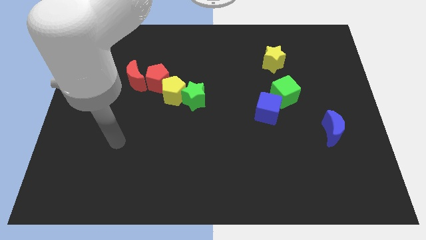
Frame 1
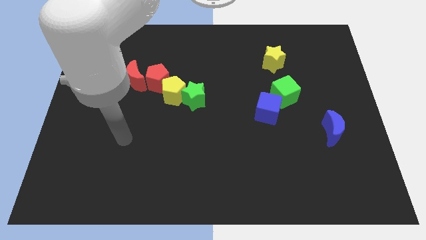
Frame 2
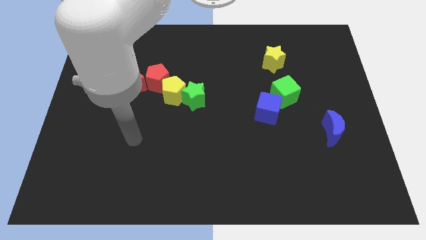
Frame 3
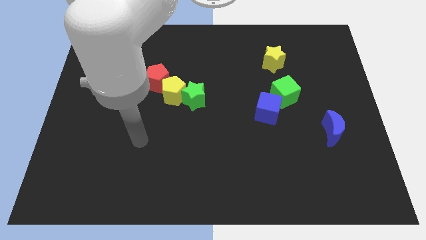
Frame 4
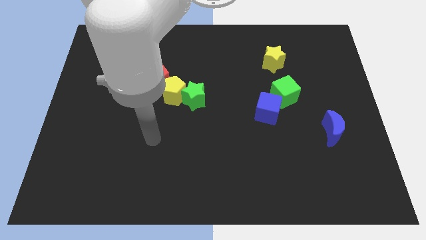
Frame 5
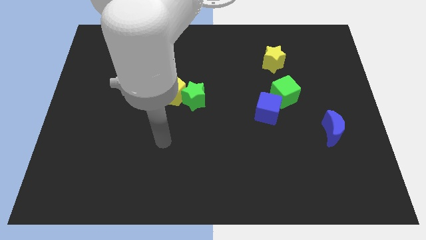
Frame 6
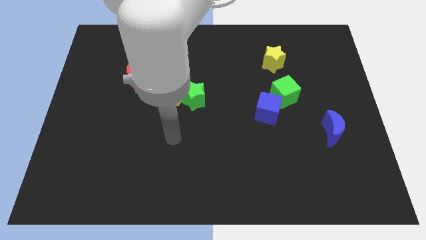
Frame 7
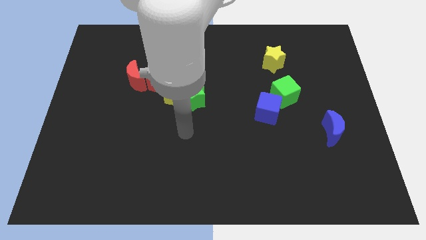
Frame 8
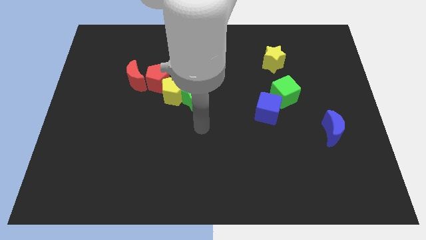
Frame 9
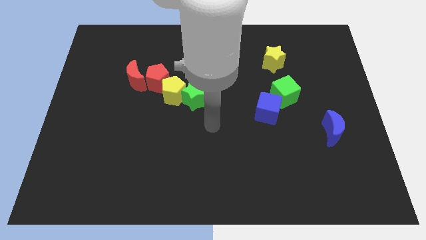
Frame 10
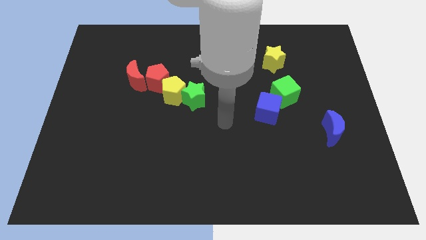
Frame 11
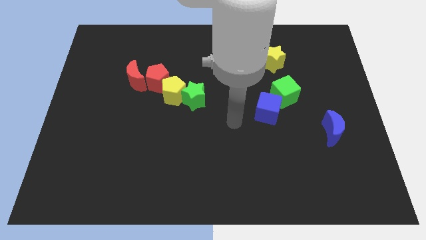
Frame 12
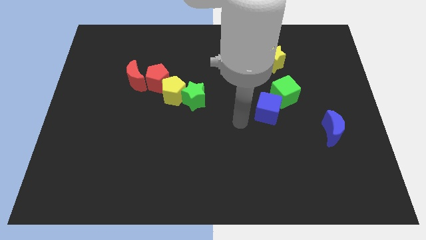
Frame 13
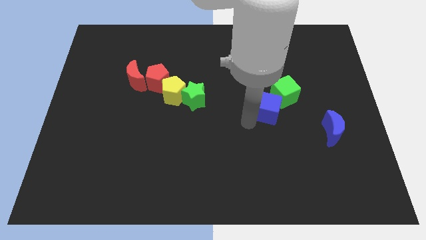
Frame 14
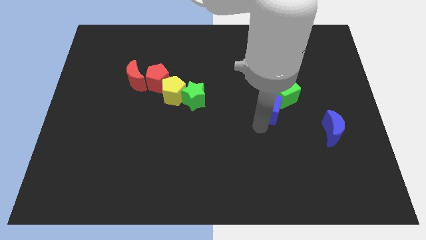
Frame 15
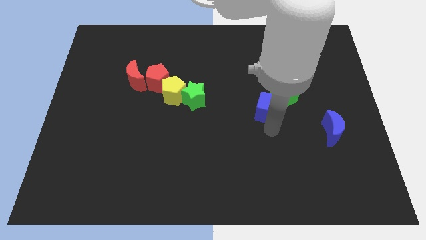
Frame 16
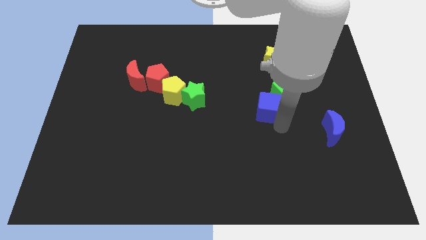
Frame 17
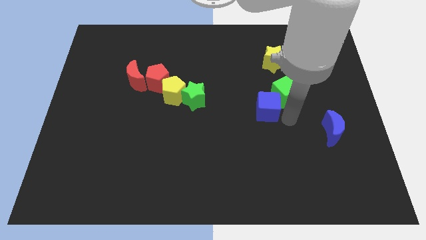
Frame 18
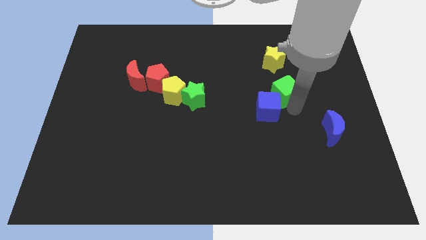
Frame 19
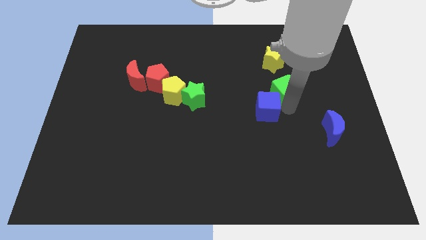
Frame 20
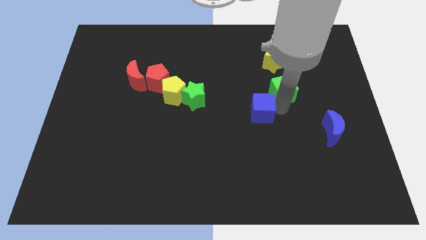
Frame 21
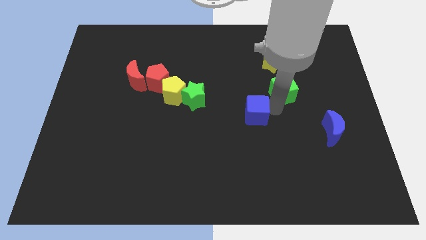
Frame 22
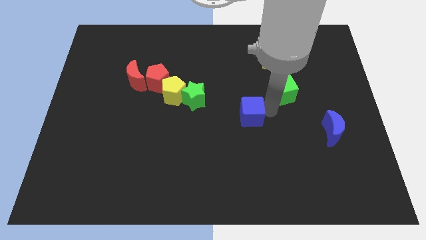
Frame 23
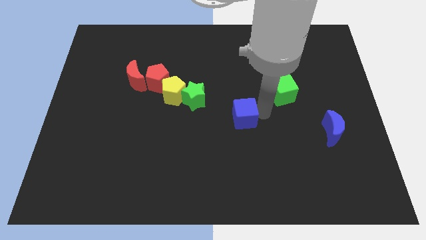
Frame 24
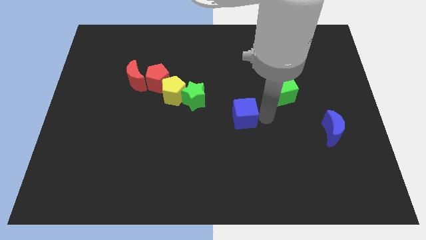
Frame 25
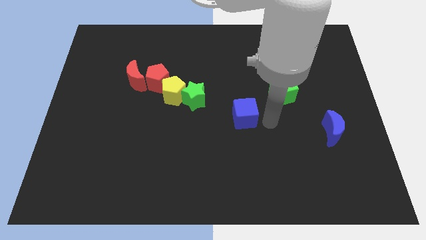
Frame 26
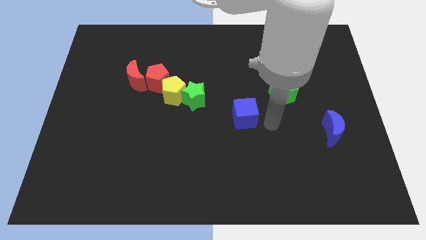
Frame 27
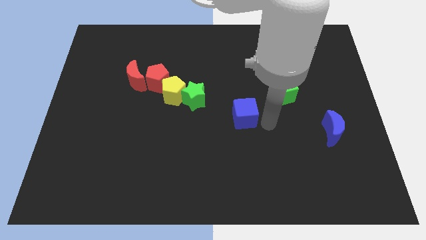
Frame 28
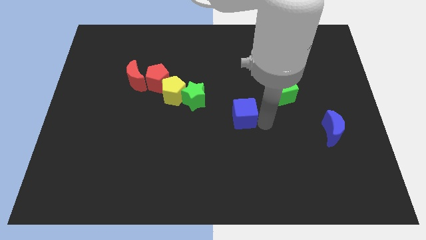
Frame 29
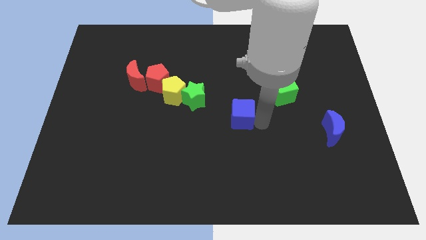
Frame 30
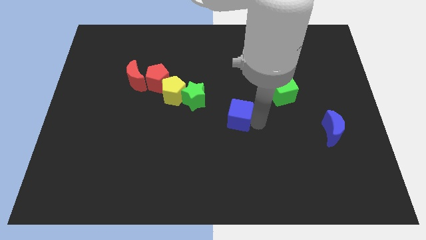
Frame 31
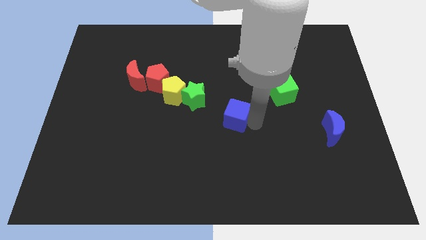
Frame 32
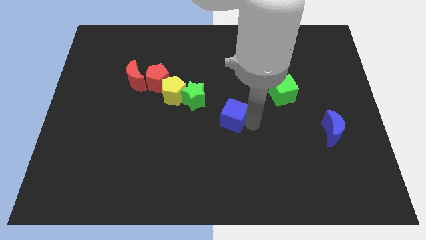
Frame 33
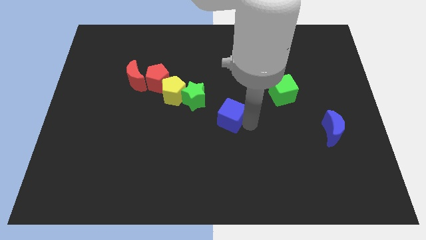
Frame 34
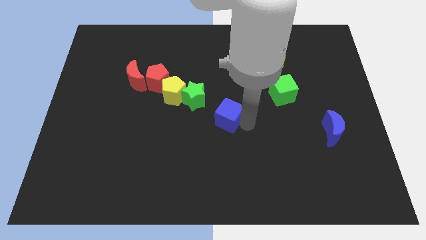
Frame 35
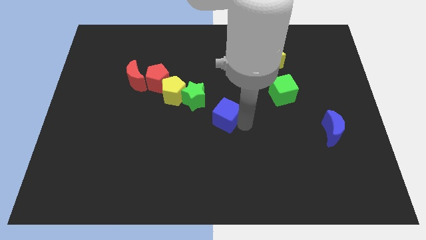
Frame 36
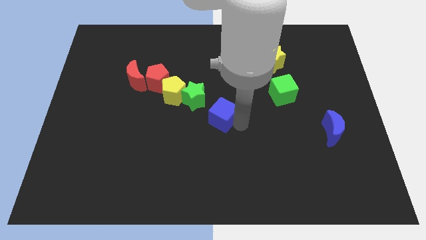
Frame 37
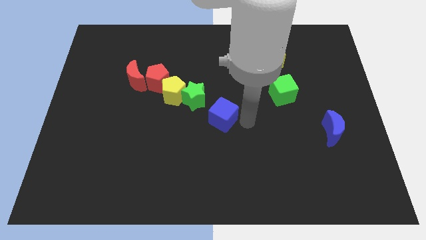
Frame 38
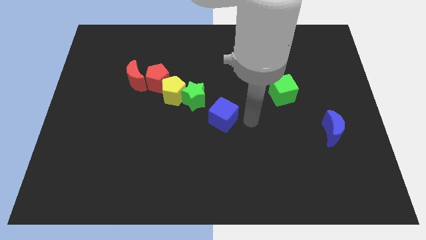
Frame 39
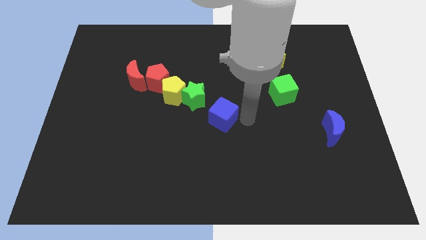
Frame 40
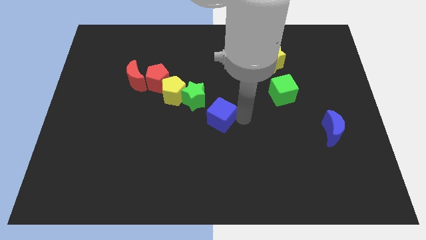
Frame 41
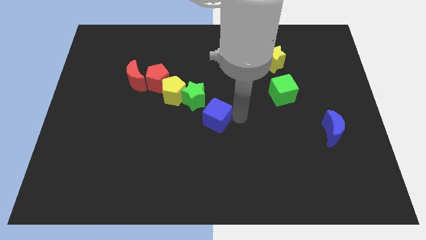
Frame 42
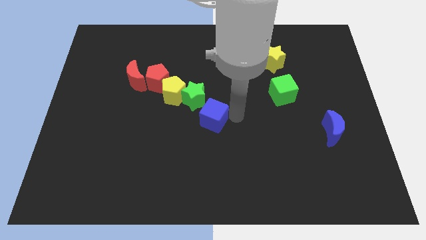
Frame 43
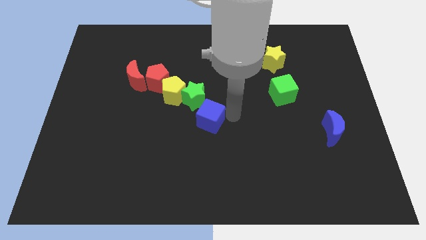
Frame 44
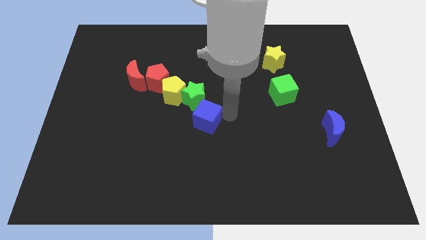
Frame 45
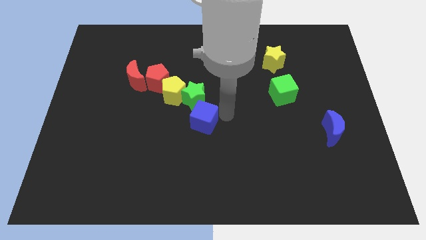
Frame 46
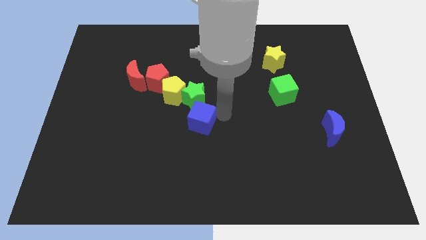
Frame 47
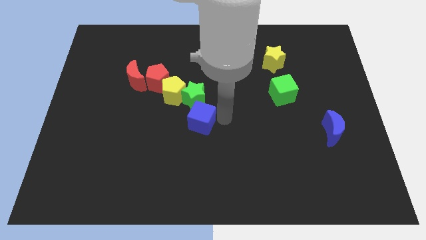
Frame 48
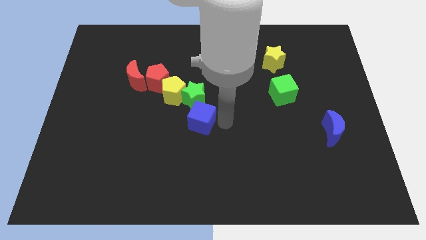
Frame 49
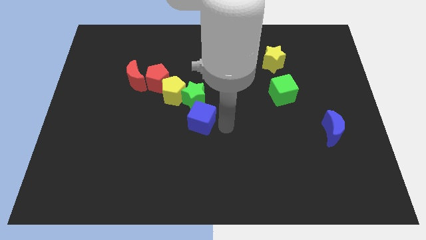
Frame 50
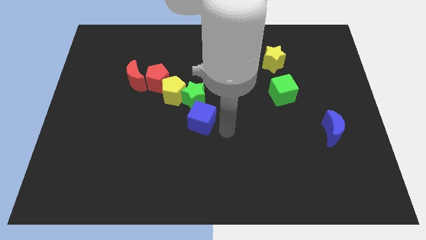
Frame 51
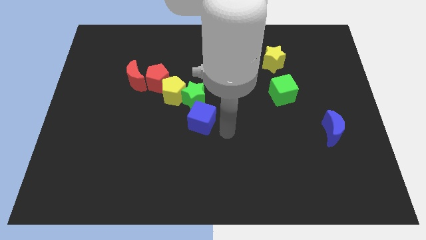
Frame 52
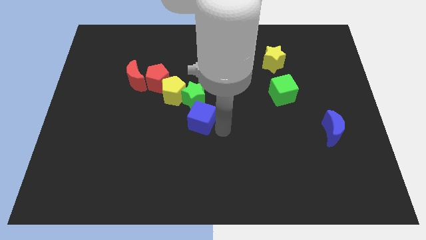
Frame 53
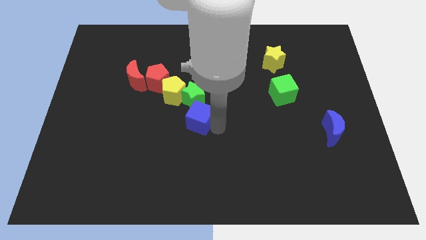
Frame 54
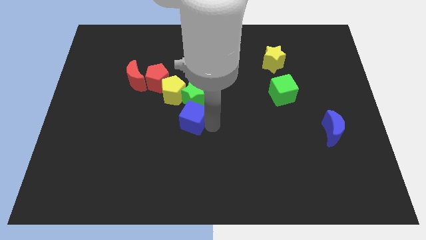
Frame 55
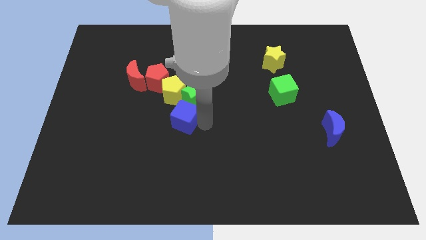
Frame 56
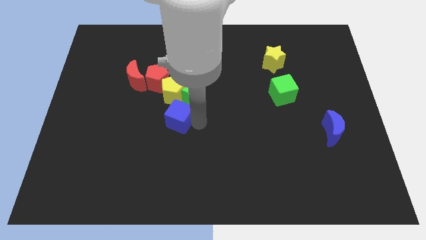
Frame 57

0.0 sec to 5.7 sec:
move the blue cube to the left

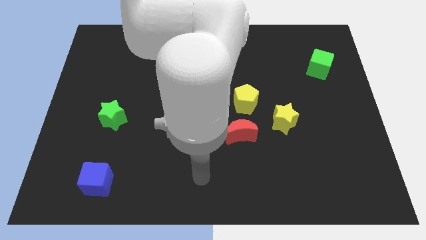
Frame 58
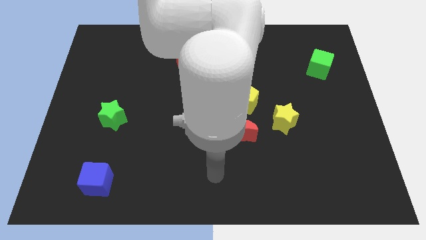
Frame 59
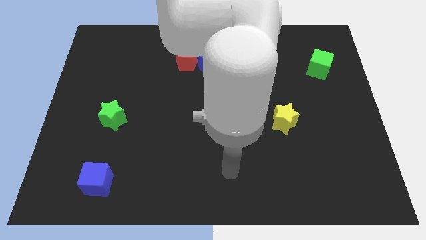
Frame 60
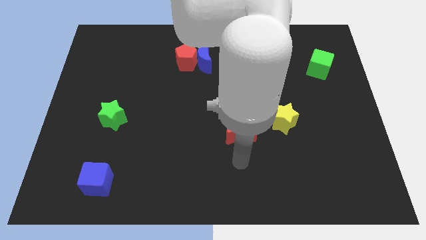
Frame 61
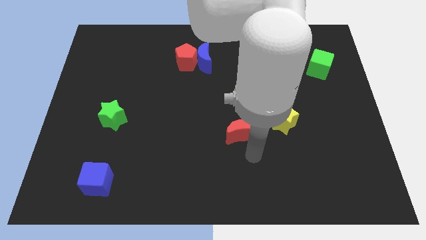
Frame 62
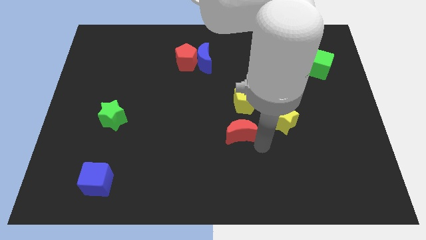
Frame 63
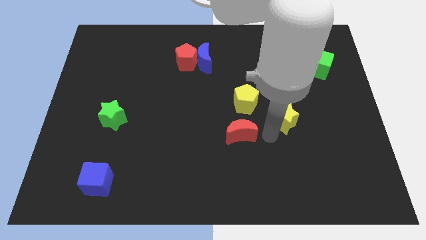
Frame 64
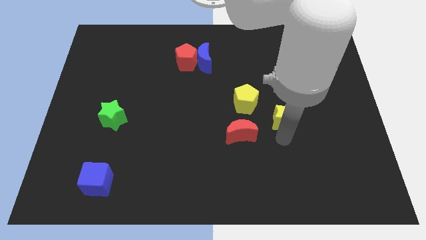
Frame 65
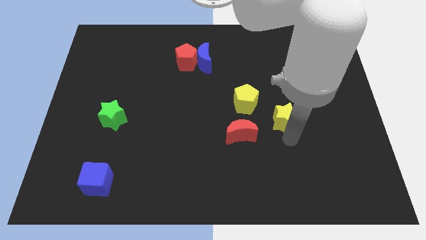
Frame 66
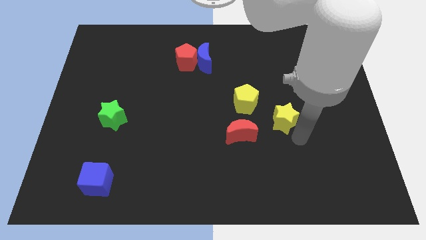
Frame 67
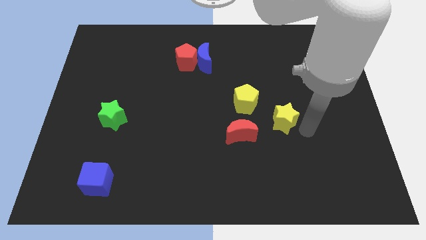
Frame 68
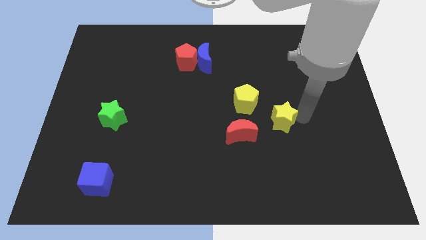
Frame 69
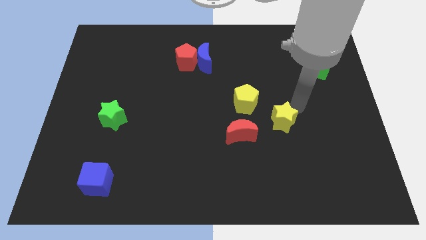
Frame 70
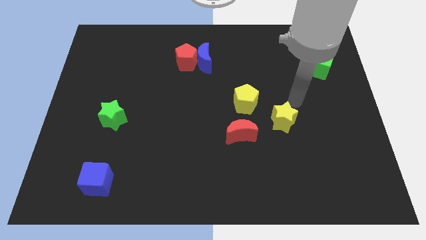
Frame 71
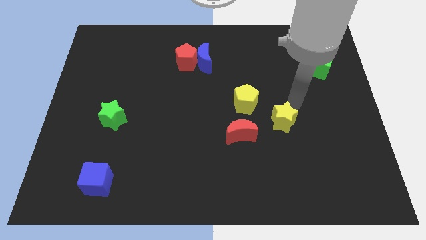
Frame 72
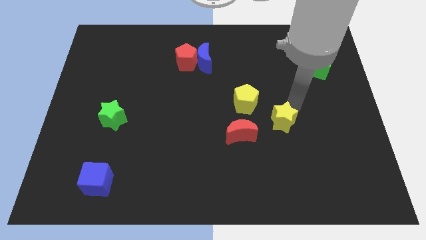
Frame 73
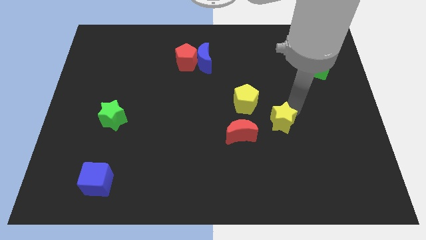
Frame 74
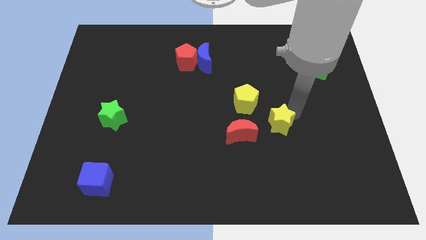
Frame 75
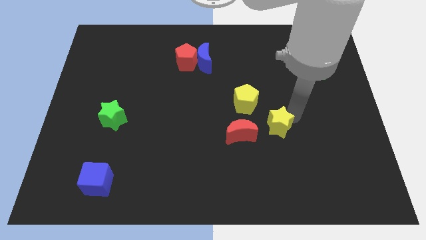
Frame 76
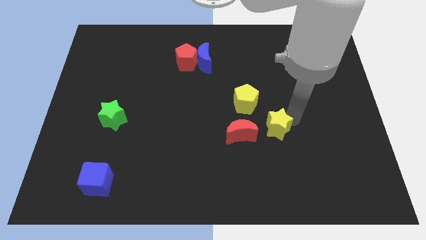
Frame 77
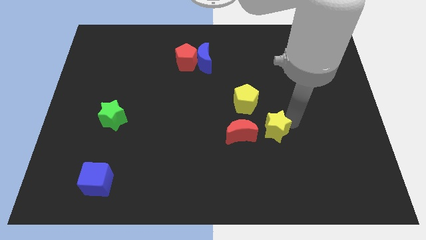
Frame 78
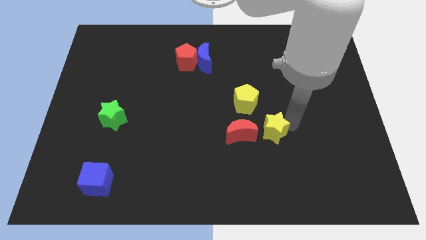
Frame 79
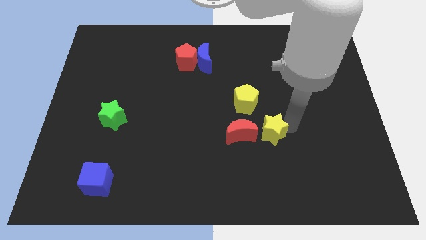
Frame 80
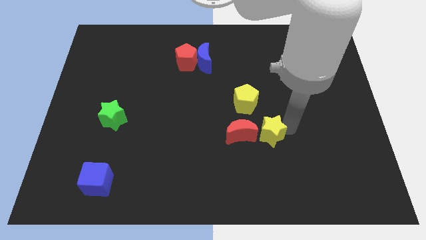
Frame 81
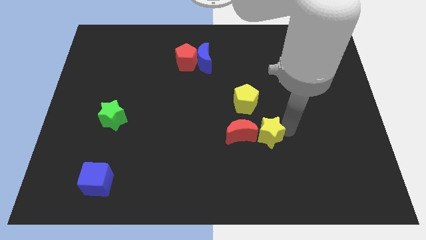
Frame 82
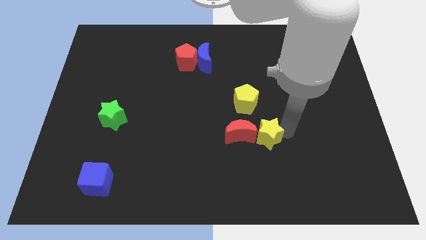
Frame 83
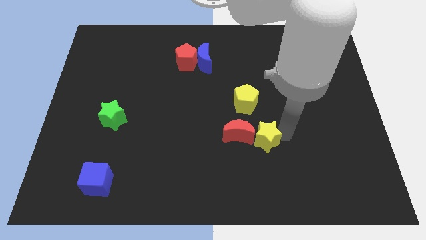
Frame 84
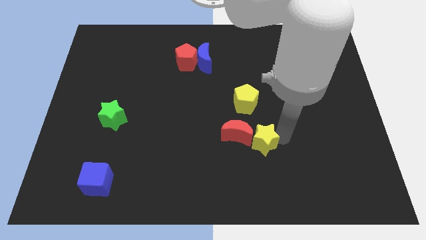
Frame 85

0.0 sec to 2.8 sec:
slide the yellow star down and left somewhat
